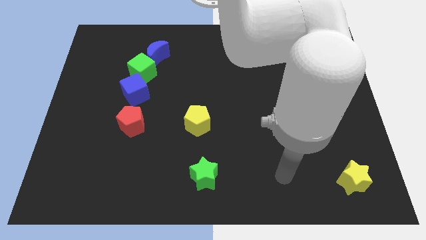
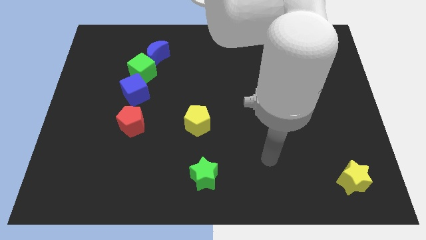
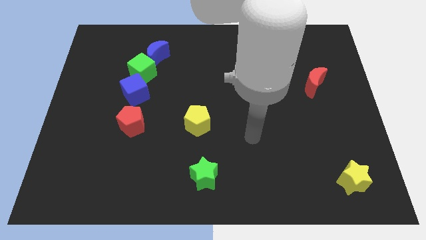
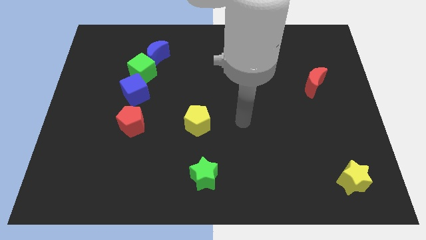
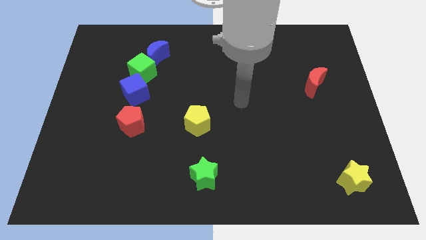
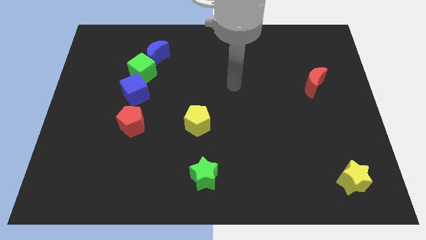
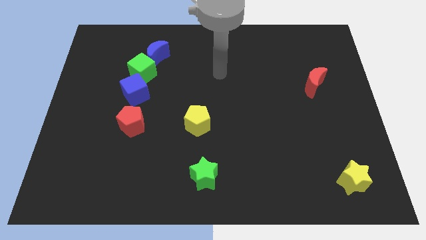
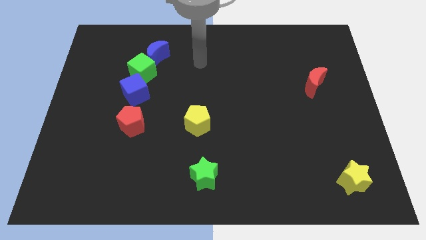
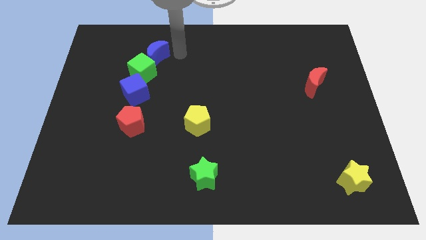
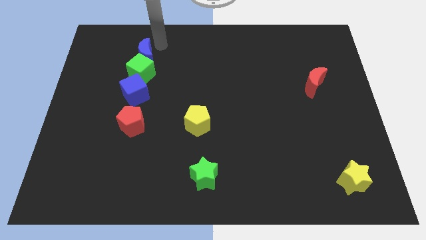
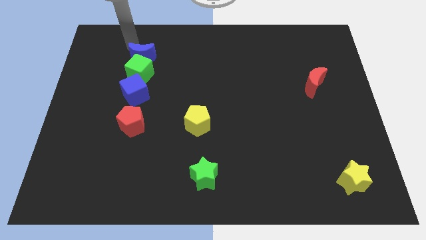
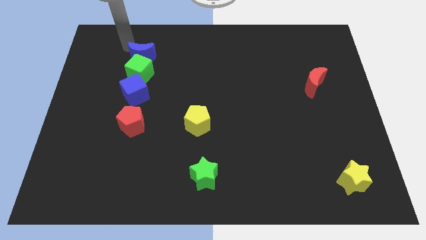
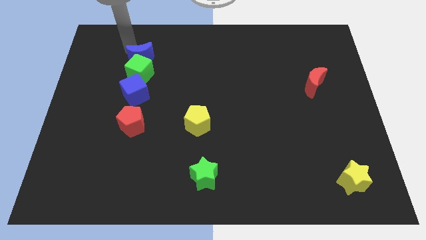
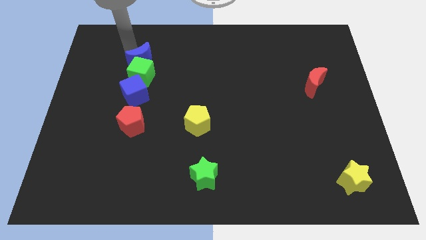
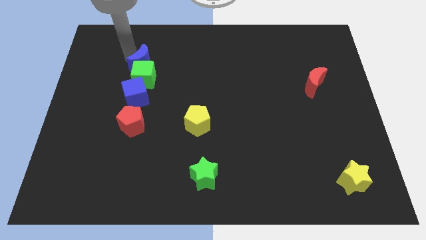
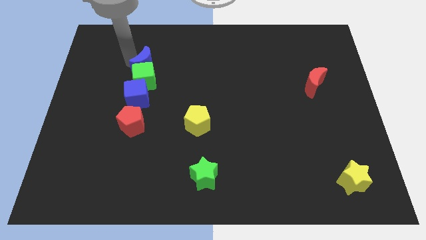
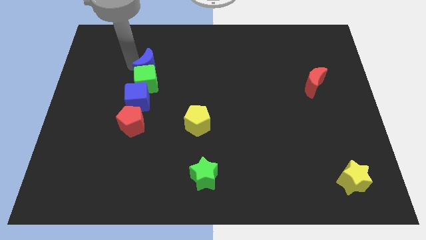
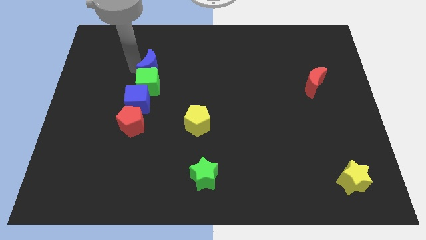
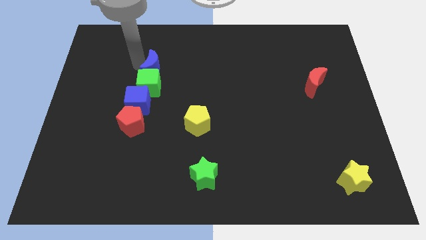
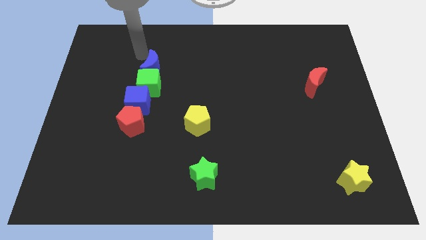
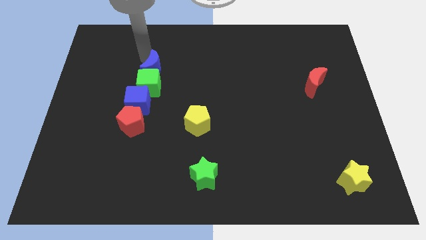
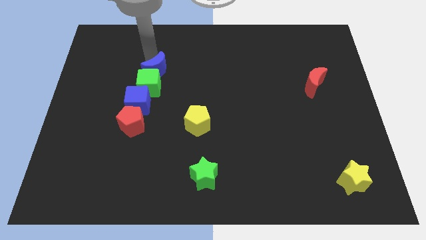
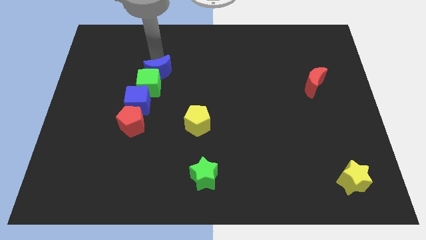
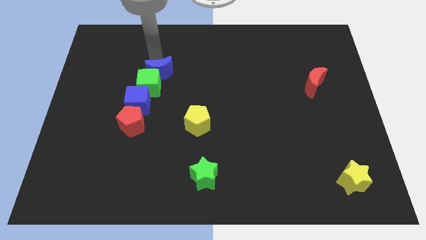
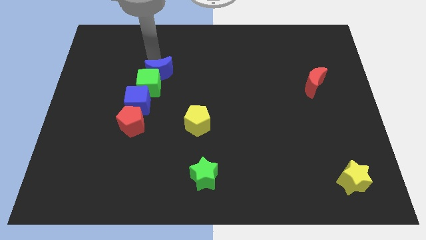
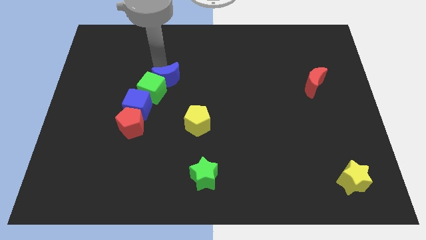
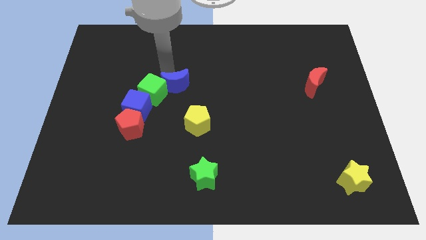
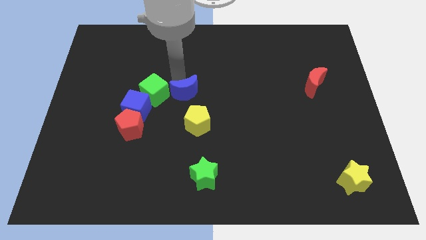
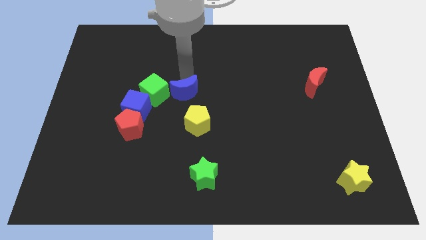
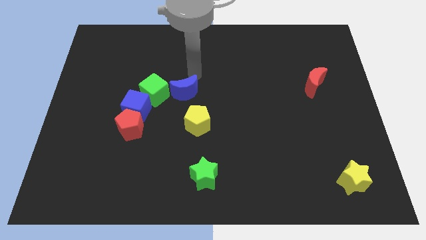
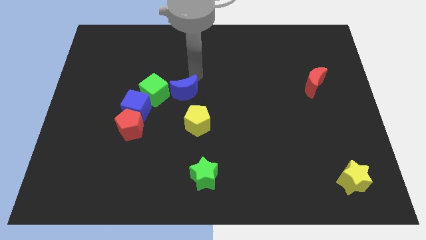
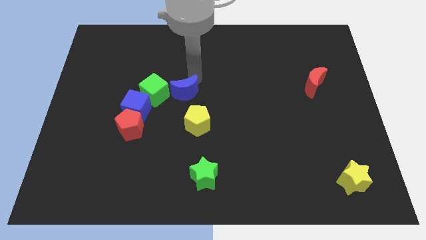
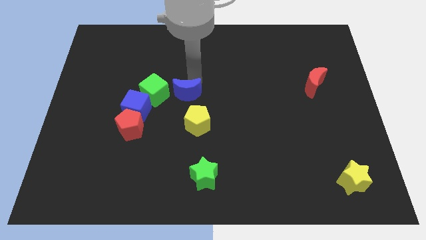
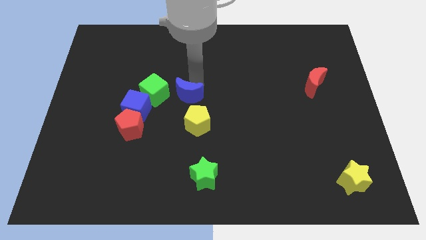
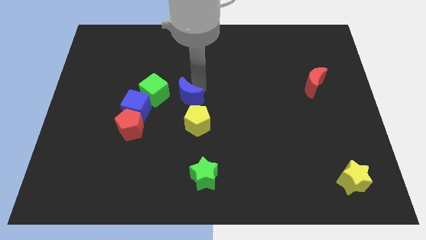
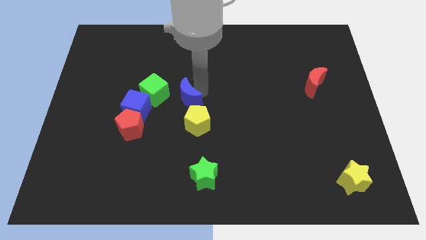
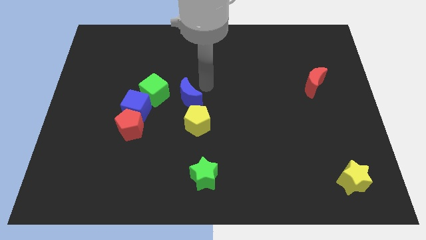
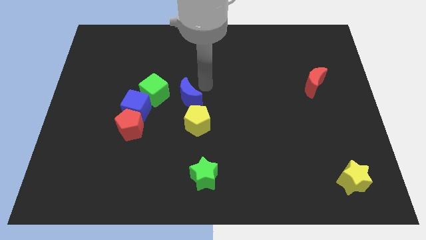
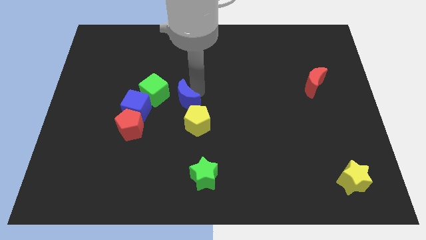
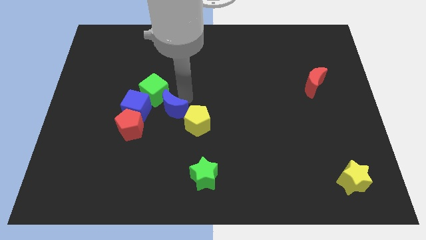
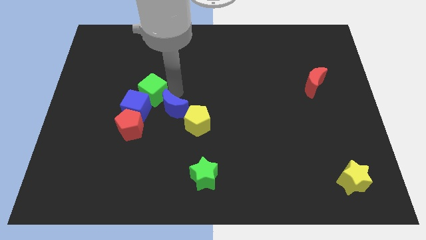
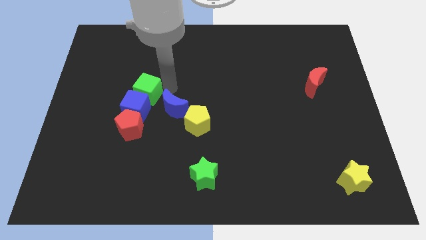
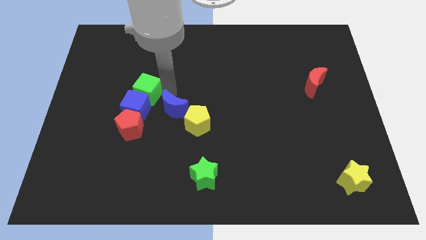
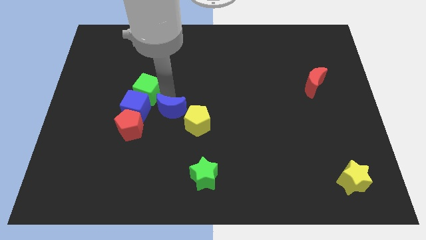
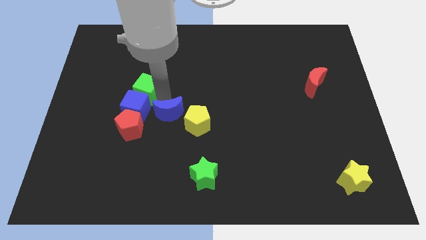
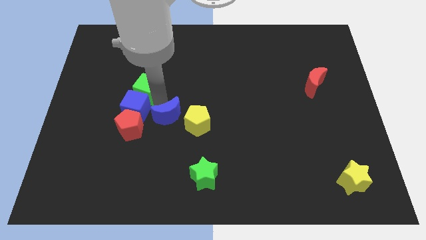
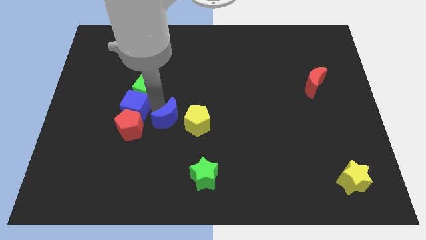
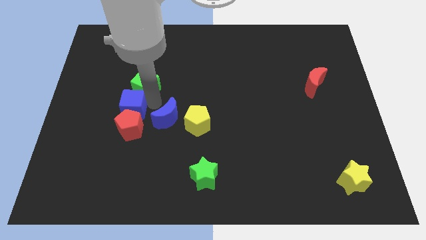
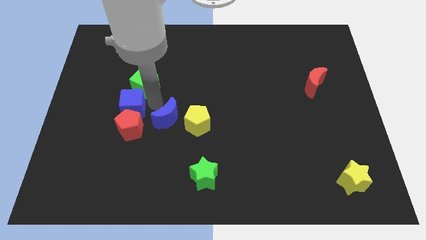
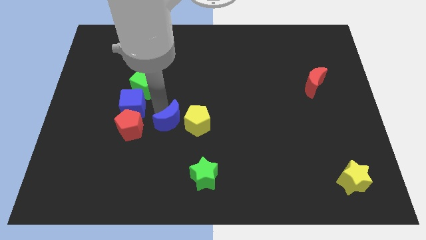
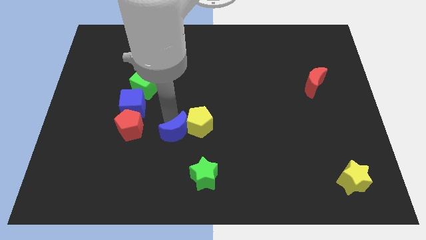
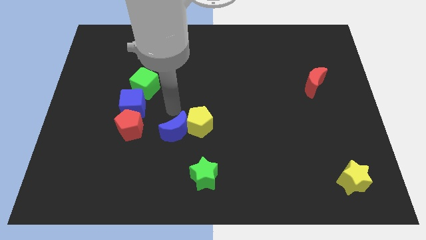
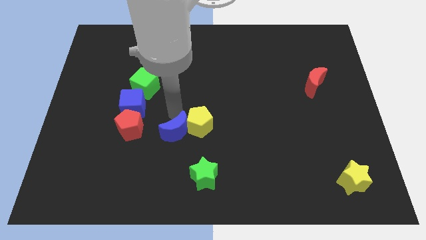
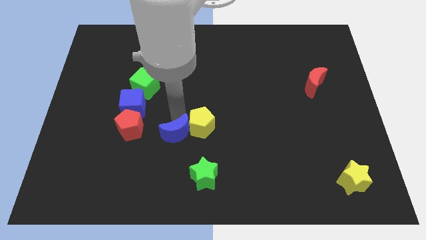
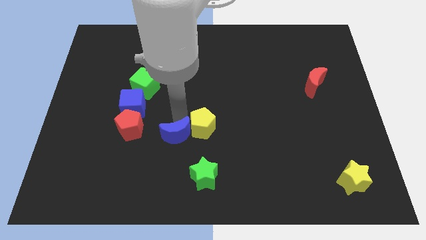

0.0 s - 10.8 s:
slide the blue moon to the top left of the green star

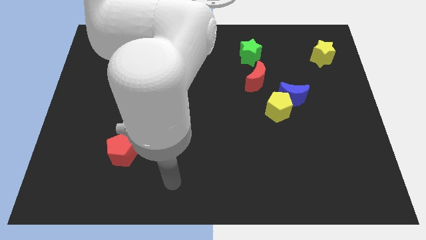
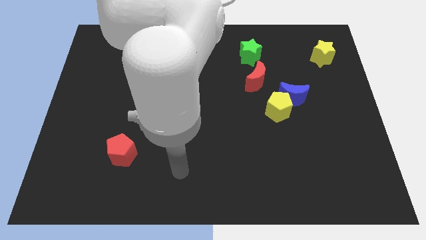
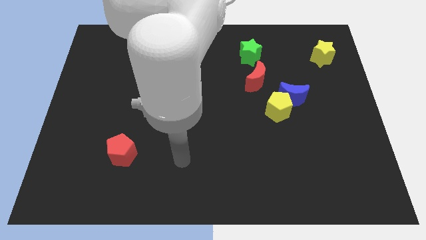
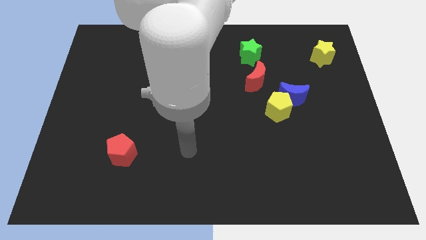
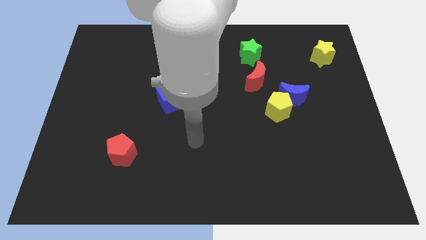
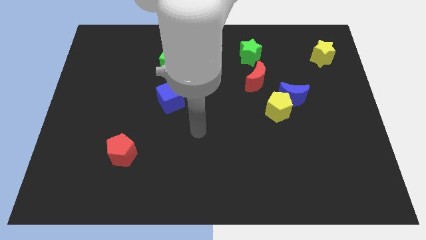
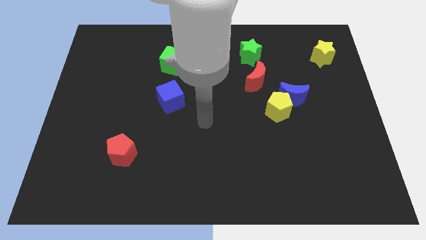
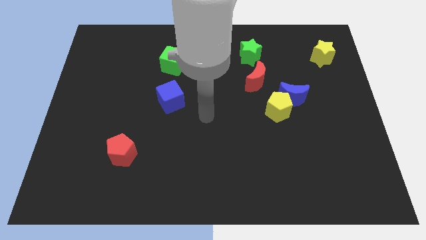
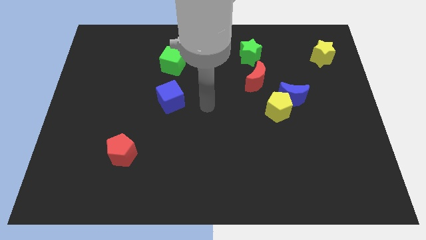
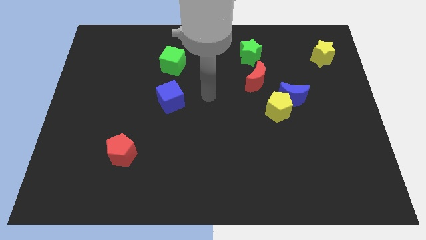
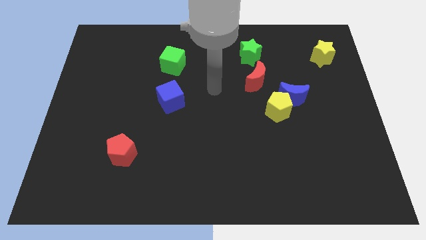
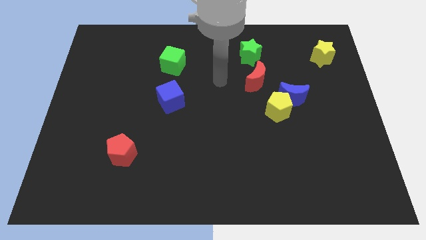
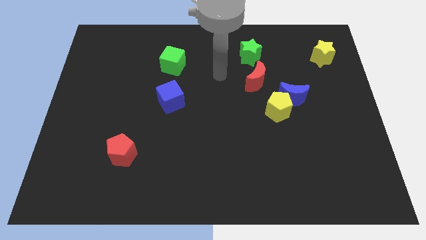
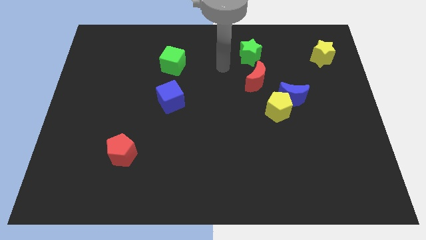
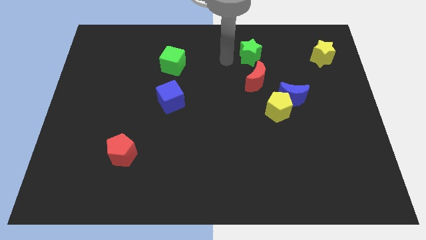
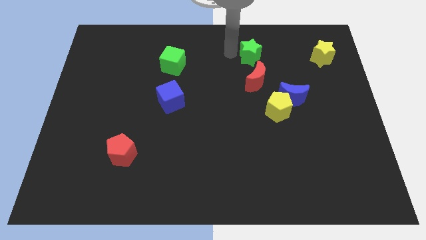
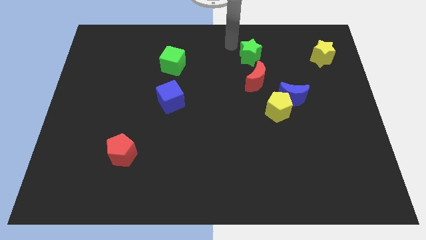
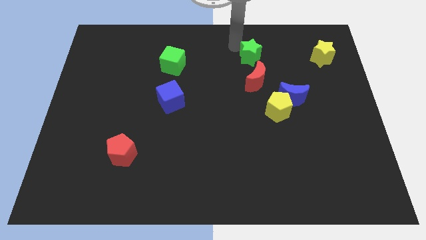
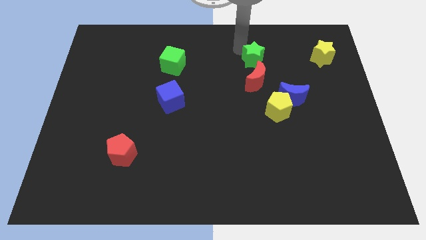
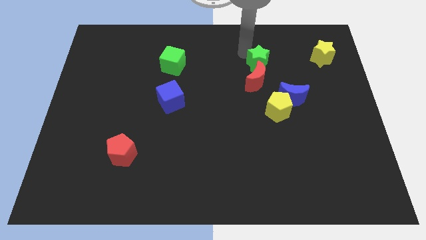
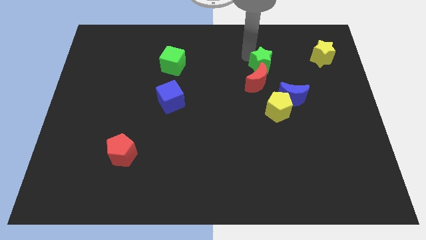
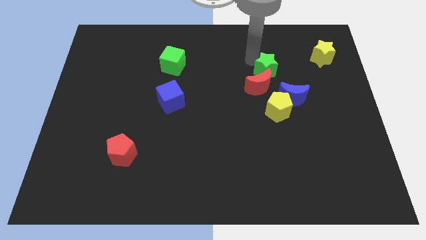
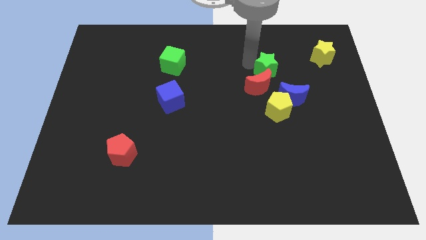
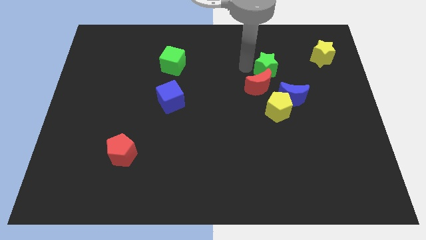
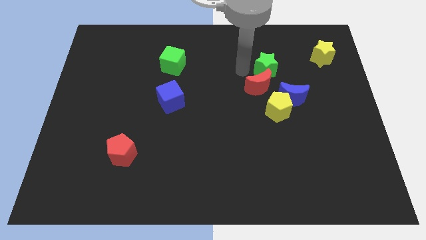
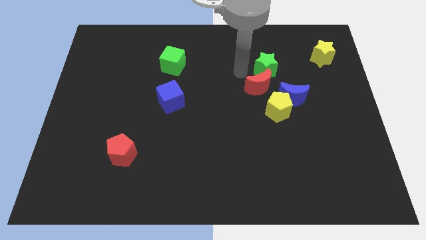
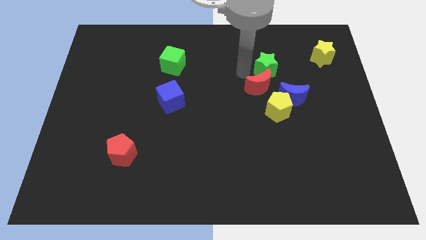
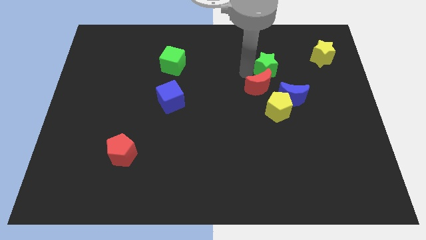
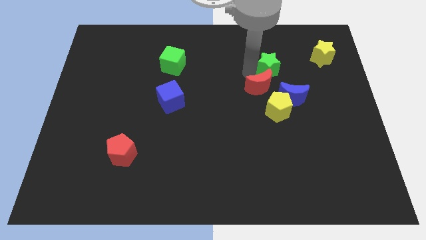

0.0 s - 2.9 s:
slide the green star to the top side of the blue moon
